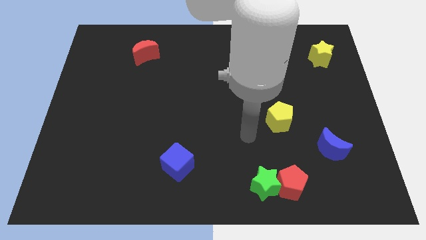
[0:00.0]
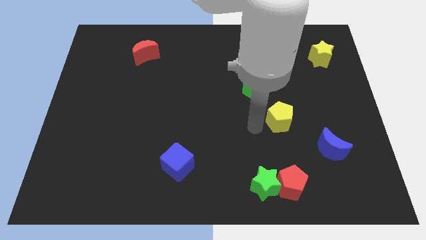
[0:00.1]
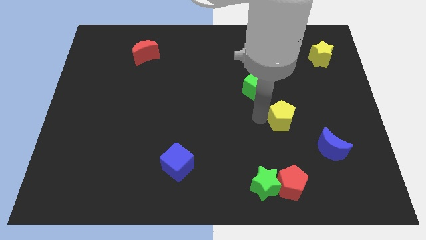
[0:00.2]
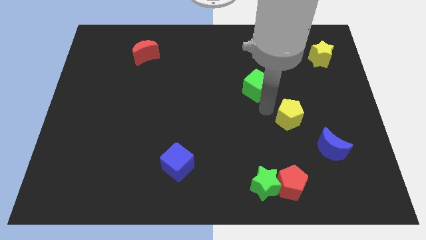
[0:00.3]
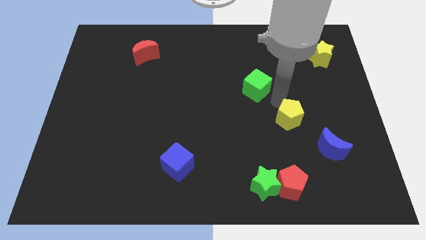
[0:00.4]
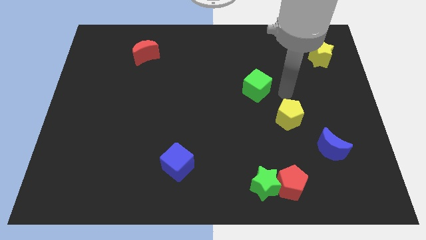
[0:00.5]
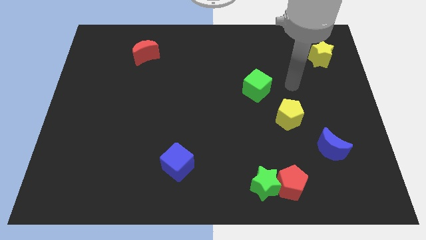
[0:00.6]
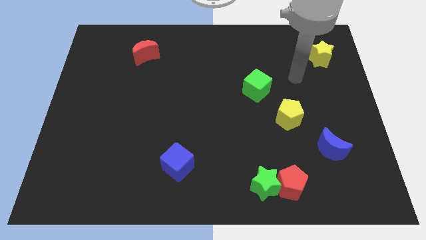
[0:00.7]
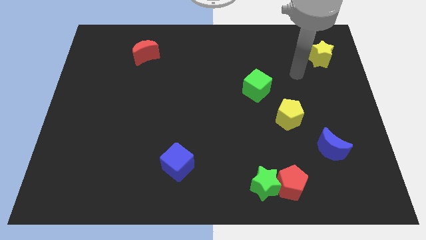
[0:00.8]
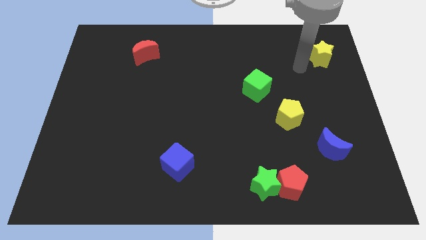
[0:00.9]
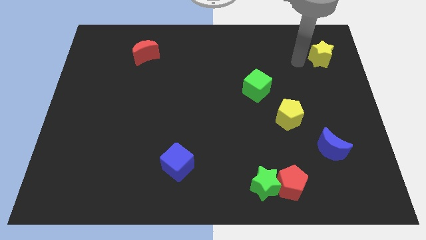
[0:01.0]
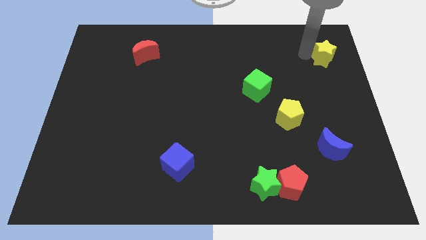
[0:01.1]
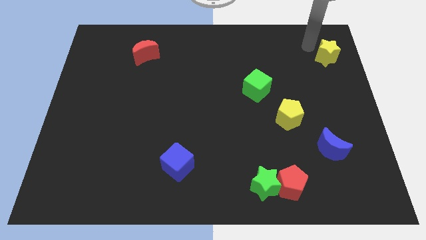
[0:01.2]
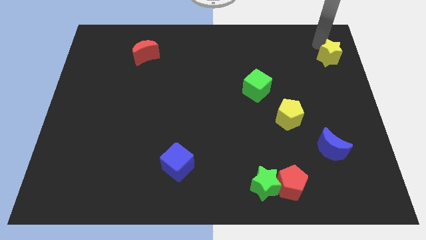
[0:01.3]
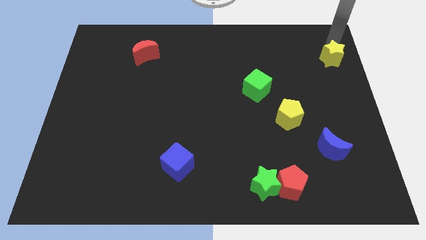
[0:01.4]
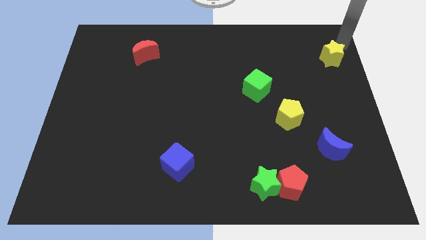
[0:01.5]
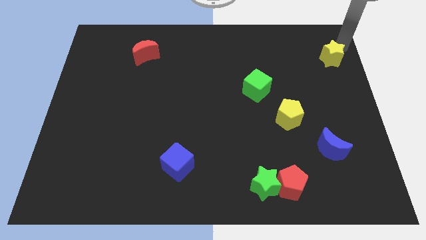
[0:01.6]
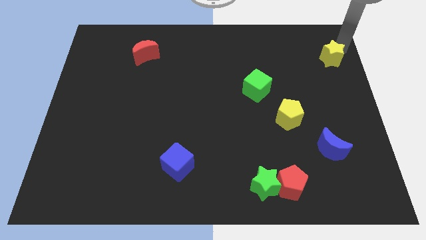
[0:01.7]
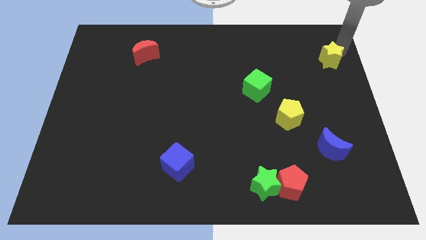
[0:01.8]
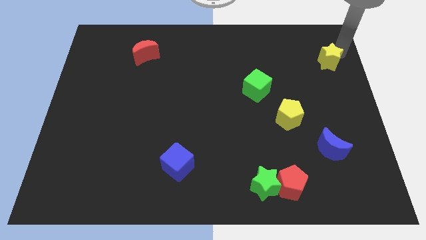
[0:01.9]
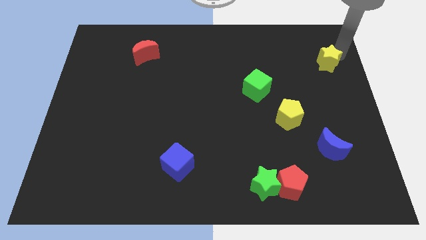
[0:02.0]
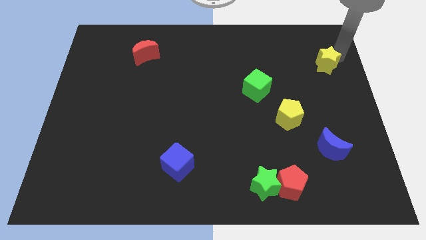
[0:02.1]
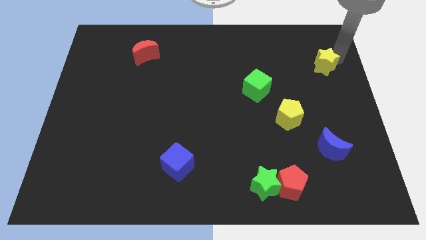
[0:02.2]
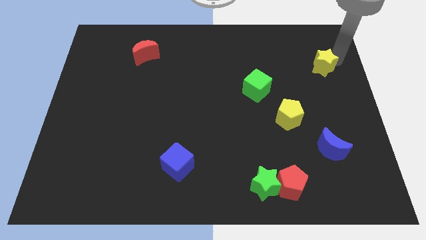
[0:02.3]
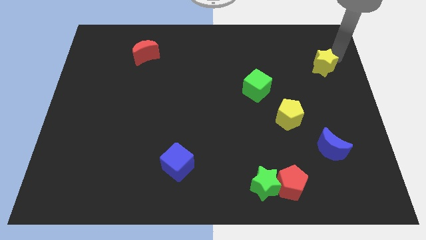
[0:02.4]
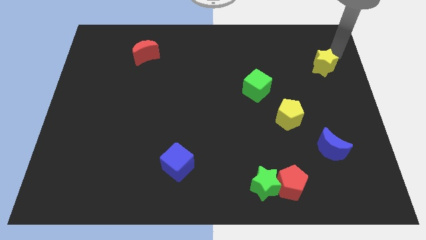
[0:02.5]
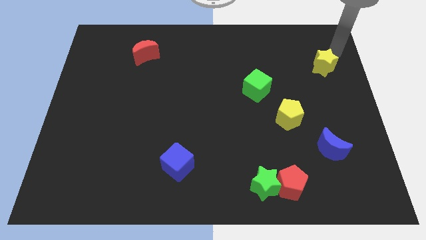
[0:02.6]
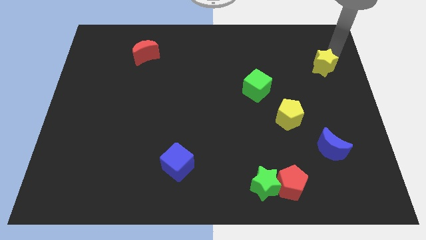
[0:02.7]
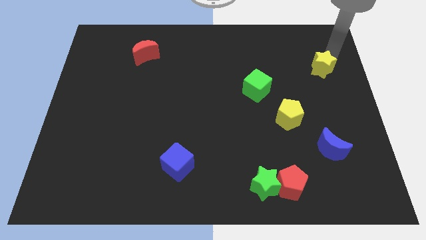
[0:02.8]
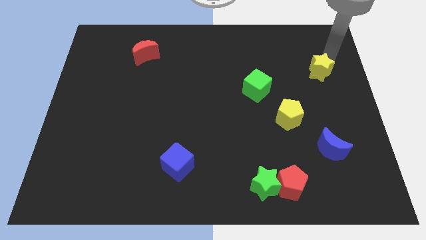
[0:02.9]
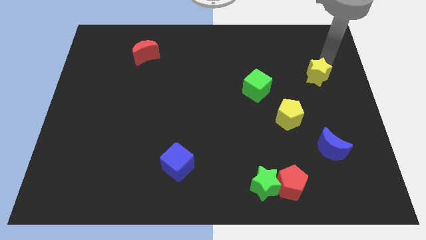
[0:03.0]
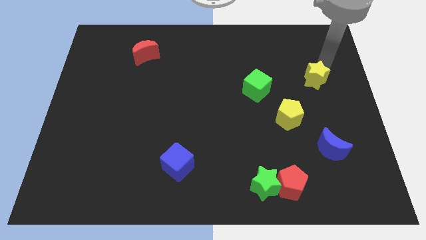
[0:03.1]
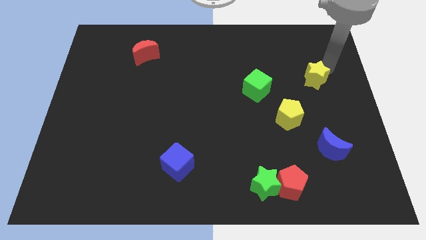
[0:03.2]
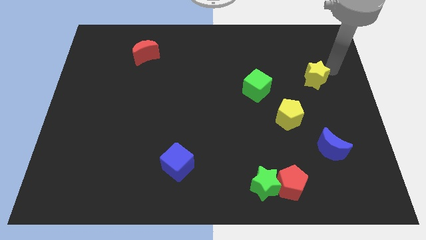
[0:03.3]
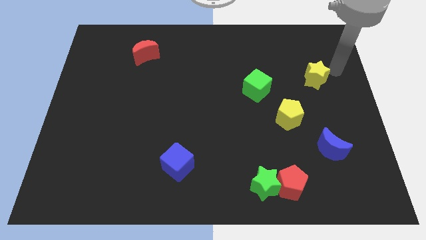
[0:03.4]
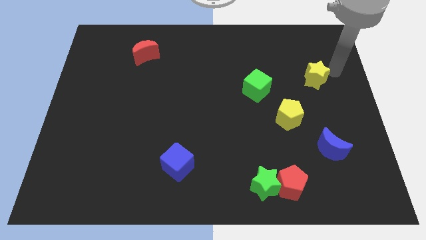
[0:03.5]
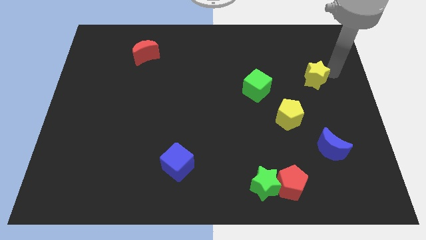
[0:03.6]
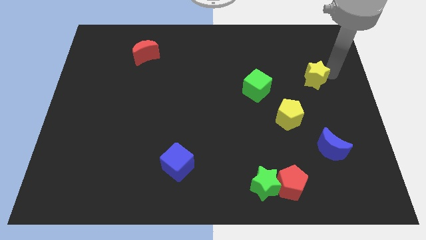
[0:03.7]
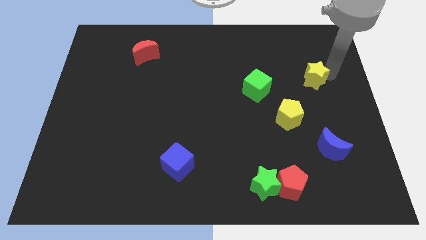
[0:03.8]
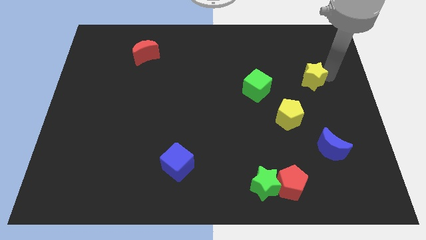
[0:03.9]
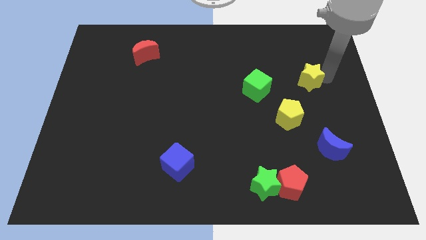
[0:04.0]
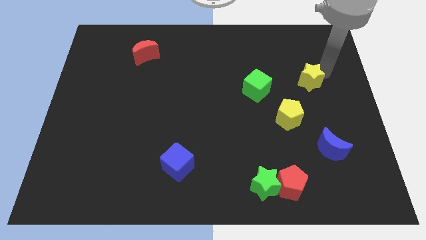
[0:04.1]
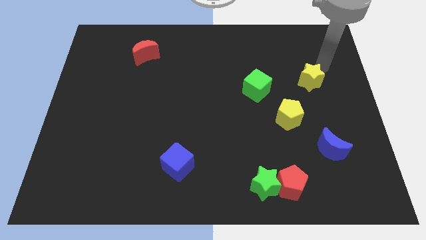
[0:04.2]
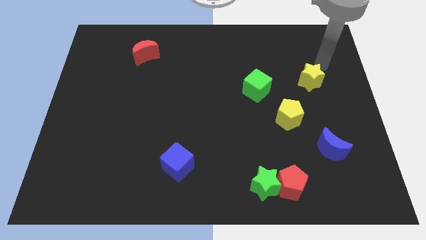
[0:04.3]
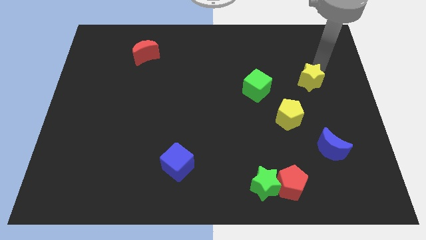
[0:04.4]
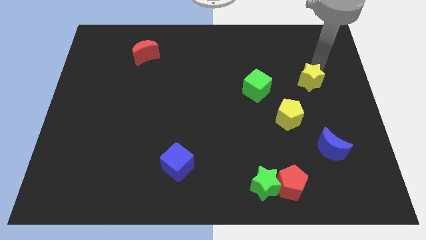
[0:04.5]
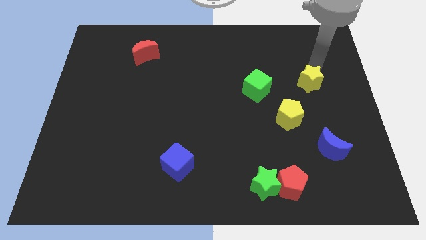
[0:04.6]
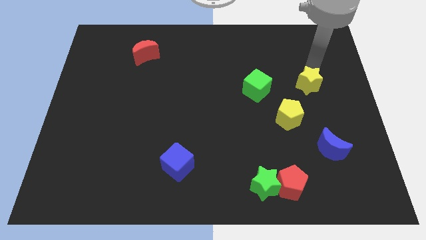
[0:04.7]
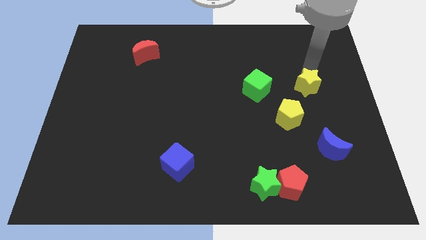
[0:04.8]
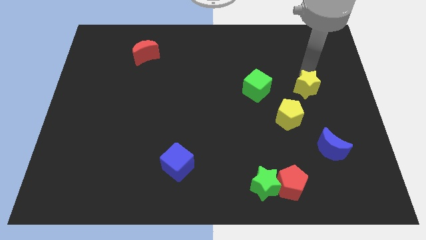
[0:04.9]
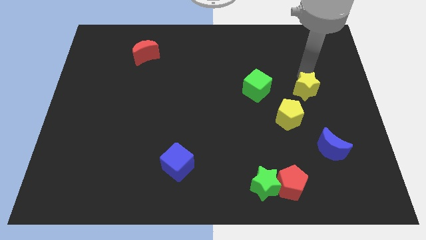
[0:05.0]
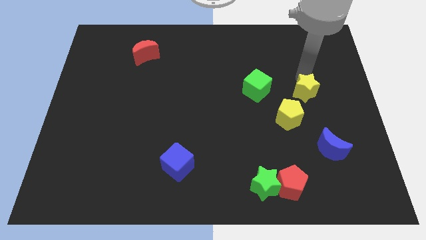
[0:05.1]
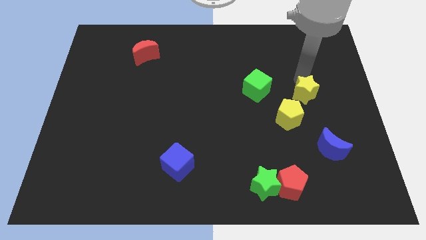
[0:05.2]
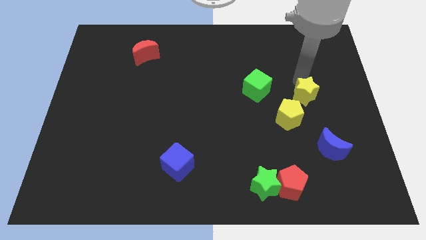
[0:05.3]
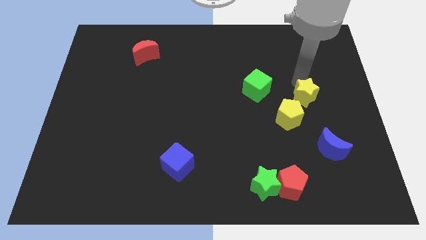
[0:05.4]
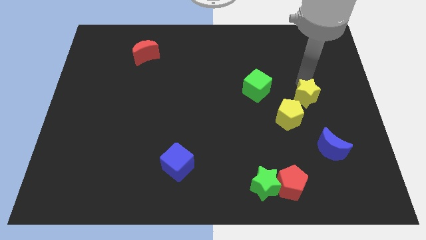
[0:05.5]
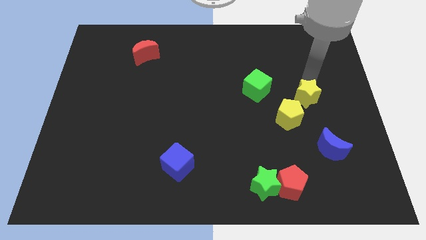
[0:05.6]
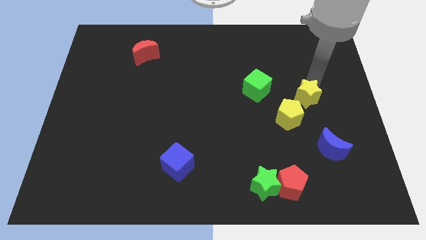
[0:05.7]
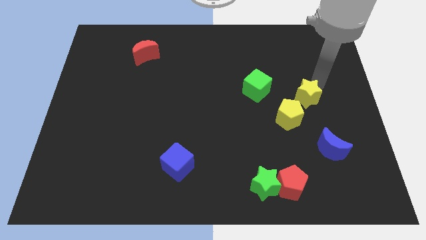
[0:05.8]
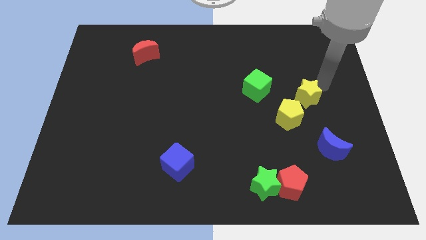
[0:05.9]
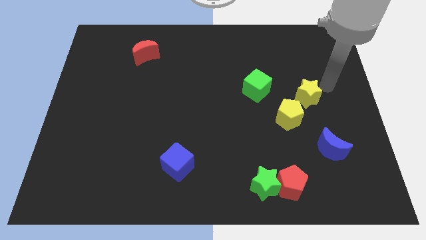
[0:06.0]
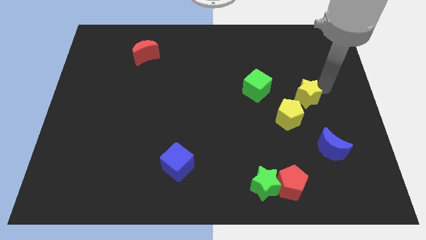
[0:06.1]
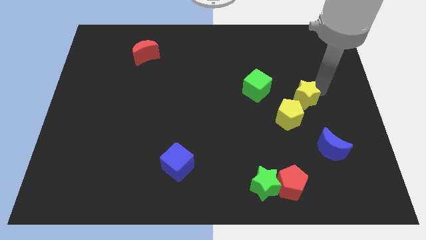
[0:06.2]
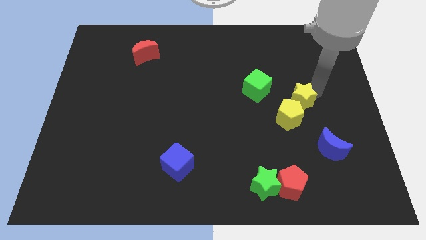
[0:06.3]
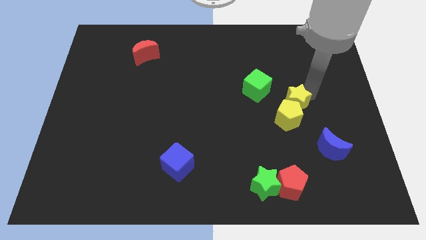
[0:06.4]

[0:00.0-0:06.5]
push the yellow star towards the yellow pentagon
